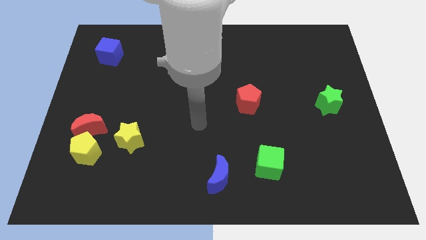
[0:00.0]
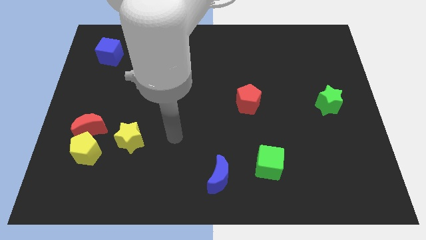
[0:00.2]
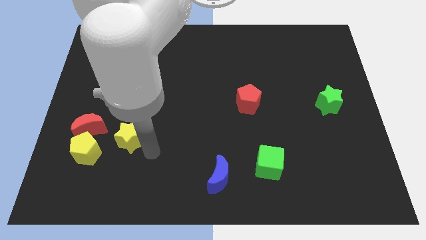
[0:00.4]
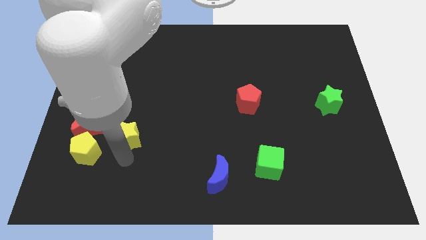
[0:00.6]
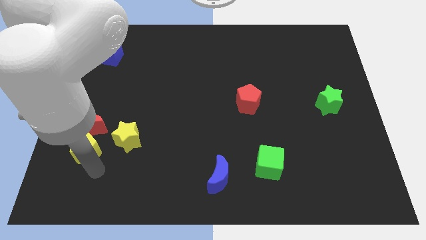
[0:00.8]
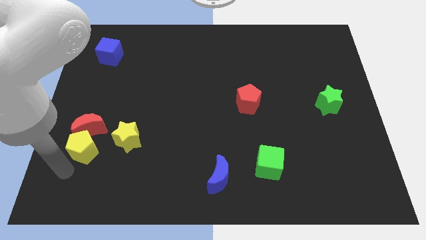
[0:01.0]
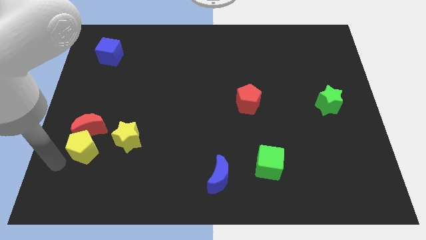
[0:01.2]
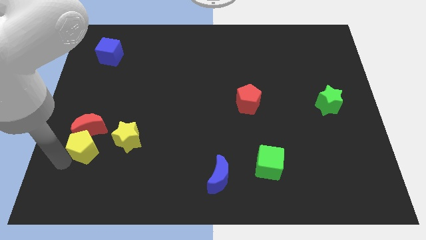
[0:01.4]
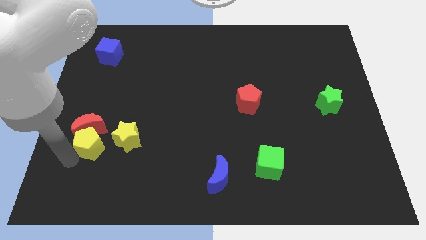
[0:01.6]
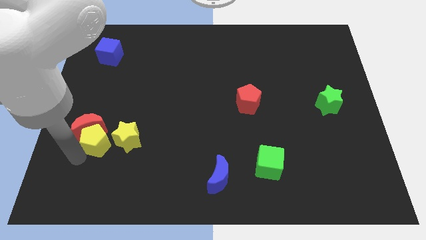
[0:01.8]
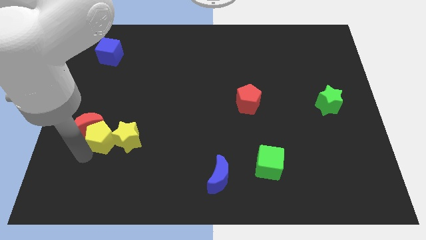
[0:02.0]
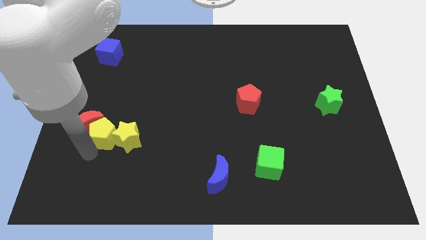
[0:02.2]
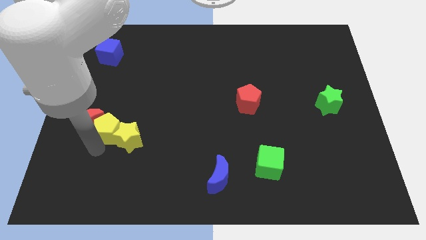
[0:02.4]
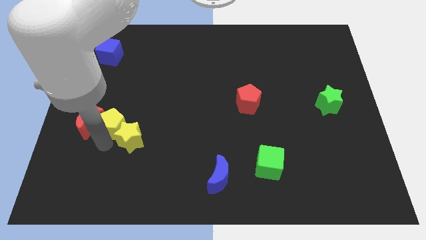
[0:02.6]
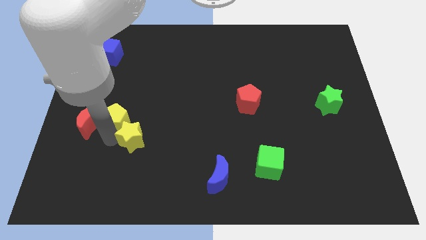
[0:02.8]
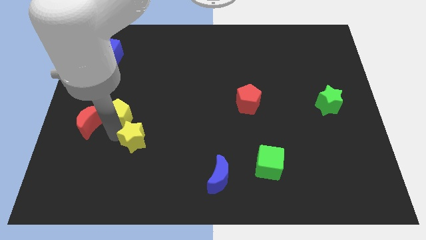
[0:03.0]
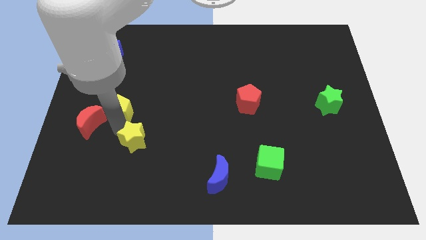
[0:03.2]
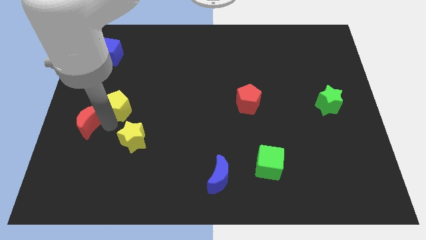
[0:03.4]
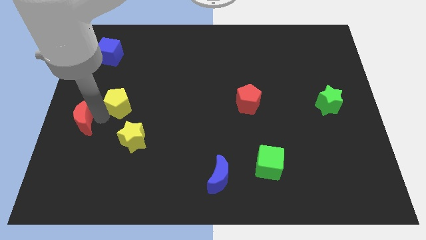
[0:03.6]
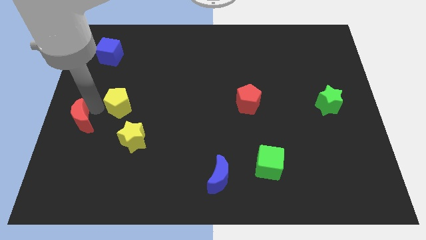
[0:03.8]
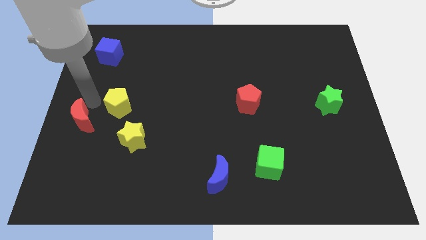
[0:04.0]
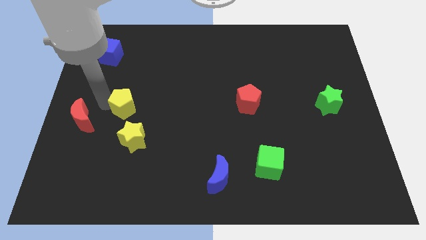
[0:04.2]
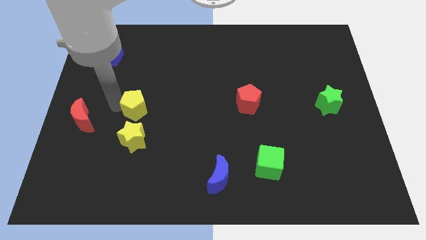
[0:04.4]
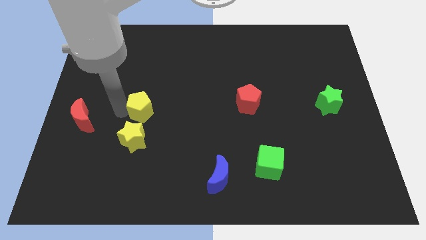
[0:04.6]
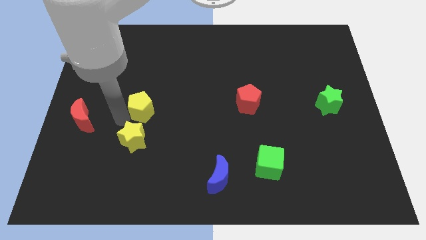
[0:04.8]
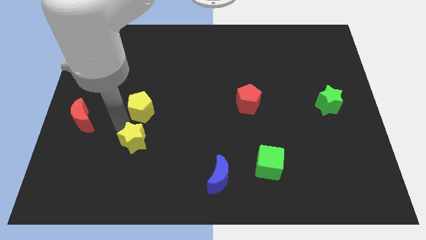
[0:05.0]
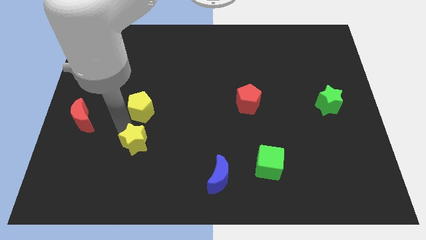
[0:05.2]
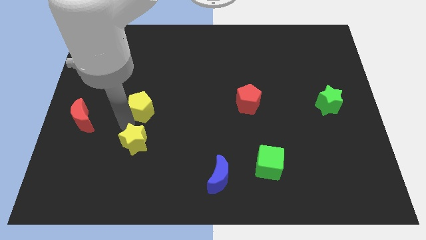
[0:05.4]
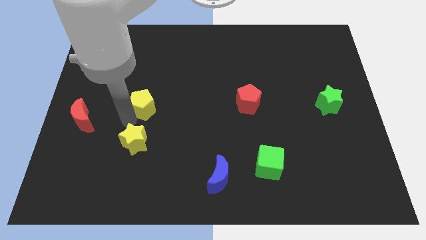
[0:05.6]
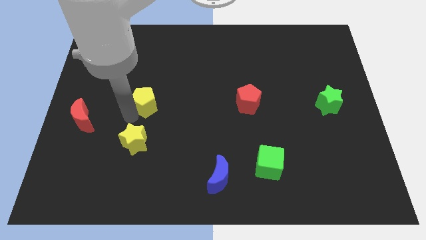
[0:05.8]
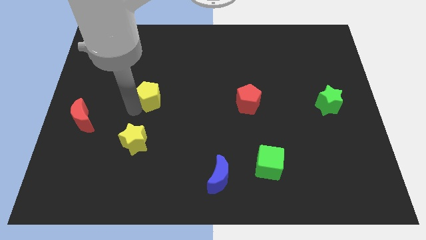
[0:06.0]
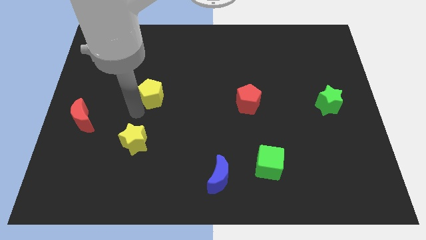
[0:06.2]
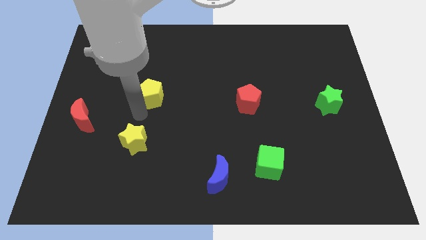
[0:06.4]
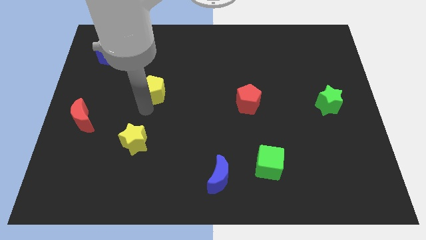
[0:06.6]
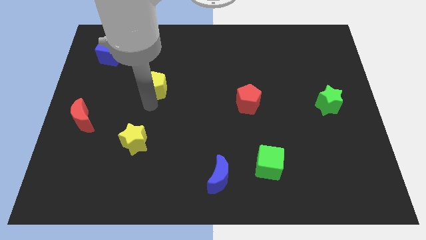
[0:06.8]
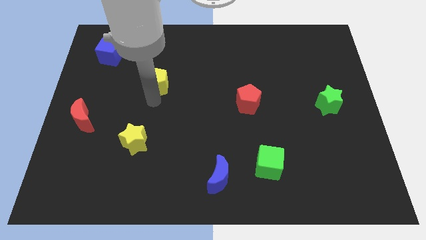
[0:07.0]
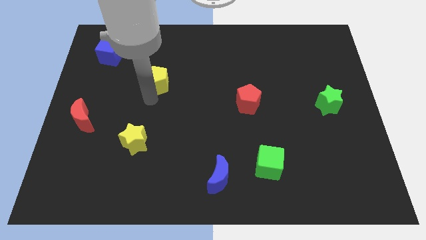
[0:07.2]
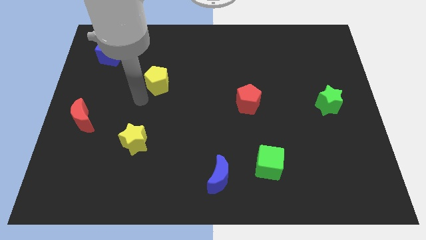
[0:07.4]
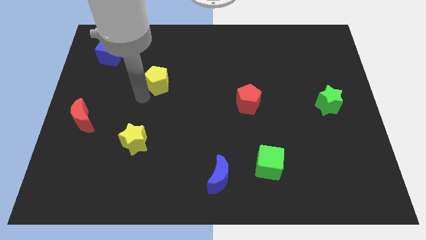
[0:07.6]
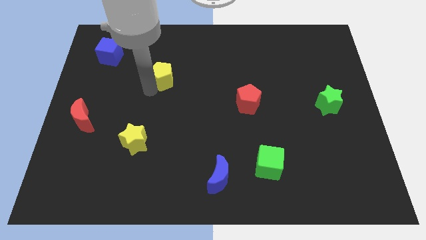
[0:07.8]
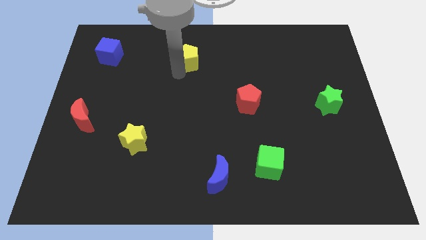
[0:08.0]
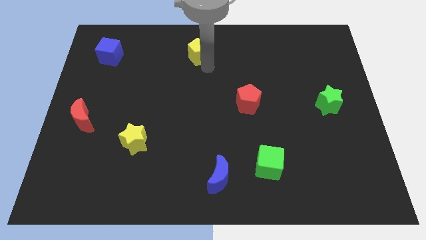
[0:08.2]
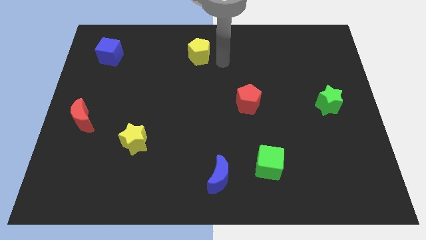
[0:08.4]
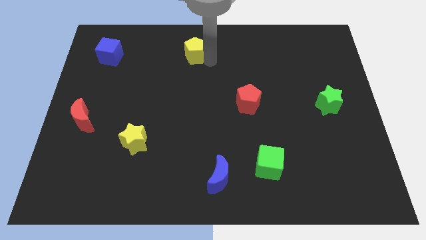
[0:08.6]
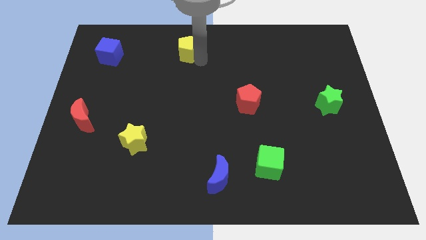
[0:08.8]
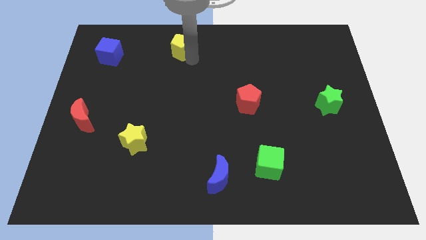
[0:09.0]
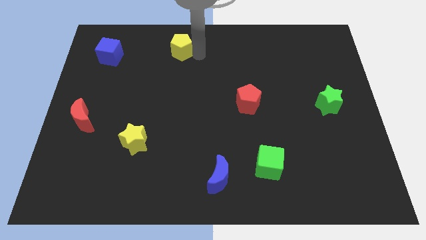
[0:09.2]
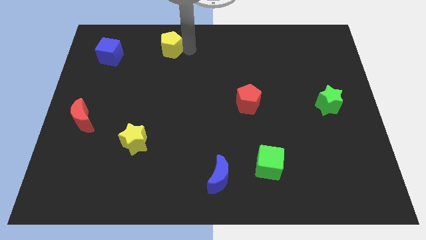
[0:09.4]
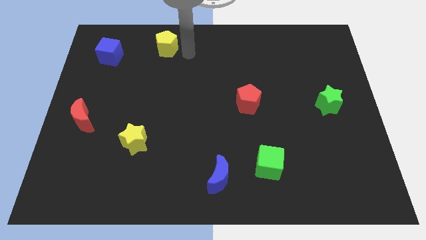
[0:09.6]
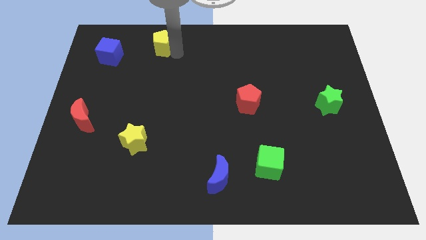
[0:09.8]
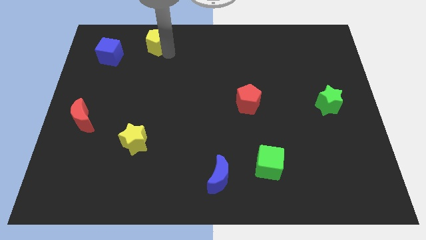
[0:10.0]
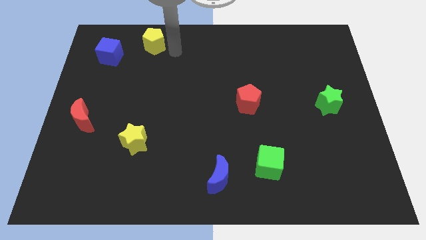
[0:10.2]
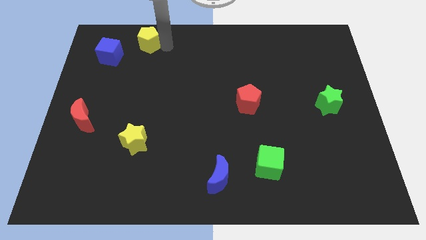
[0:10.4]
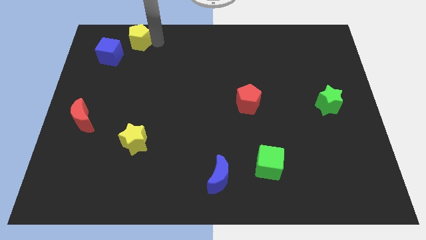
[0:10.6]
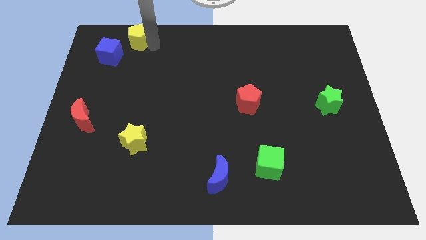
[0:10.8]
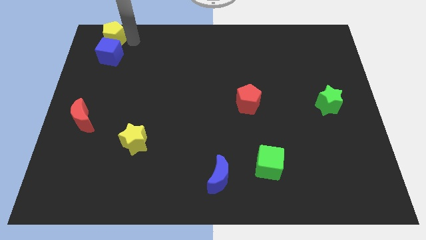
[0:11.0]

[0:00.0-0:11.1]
push the yellow pentagon to the upper left corner

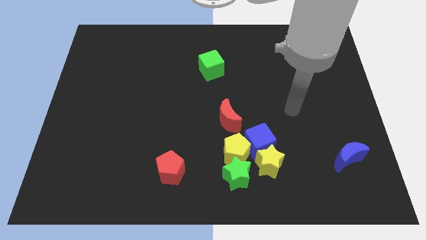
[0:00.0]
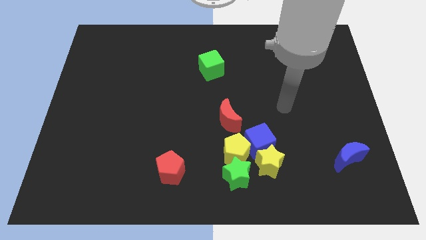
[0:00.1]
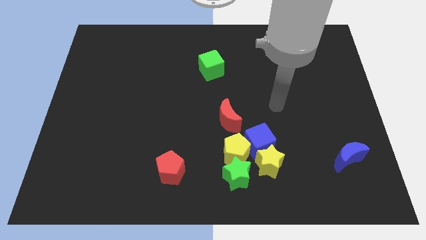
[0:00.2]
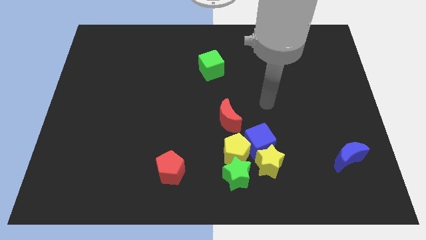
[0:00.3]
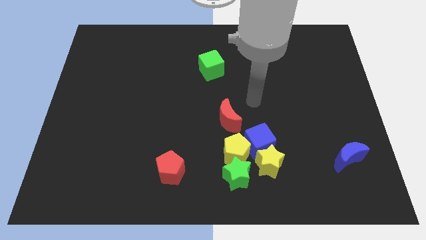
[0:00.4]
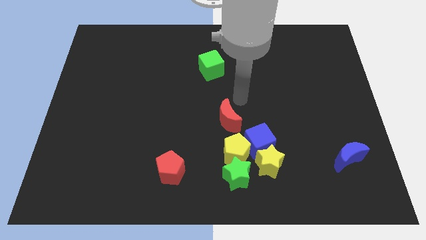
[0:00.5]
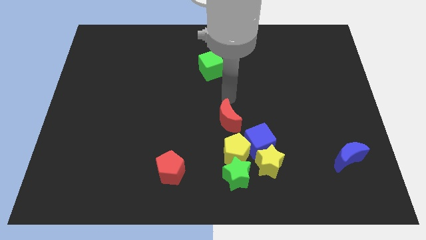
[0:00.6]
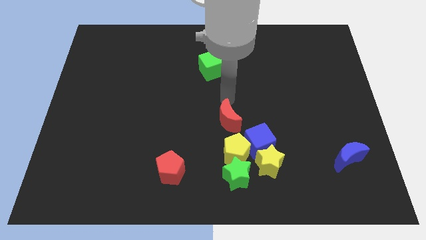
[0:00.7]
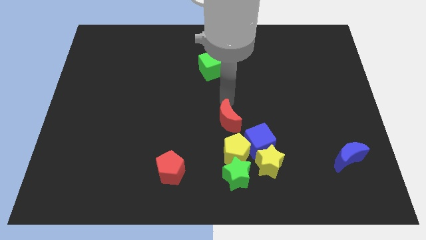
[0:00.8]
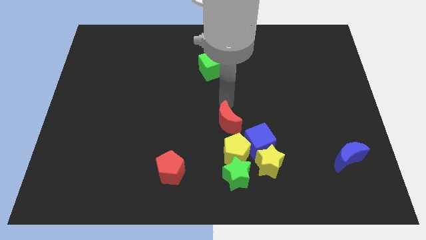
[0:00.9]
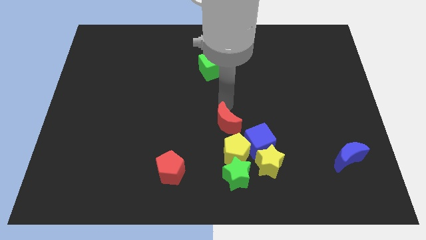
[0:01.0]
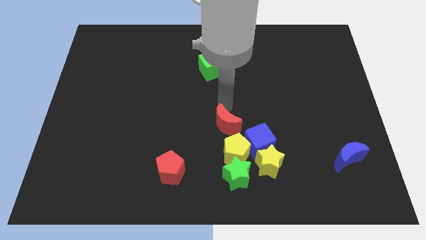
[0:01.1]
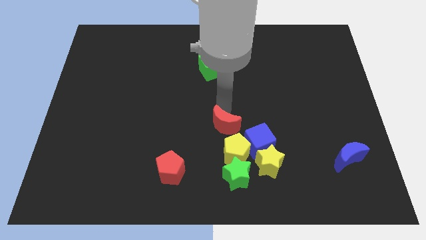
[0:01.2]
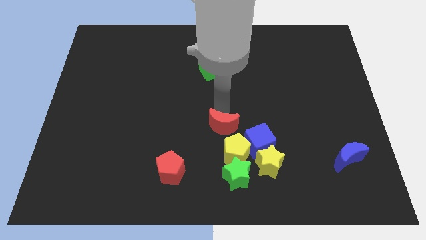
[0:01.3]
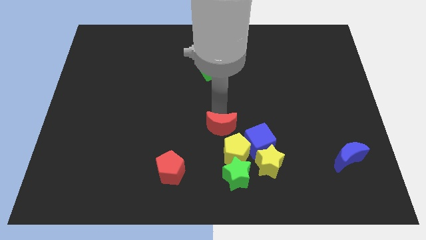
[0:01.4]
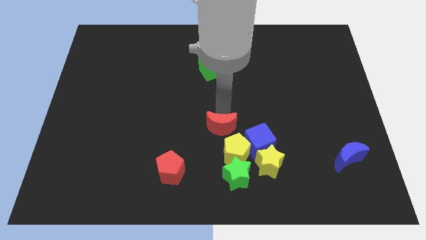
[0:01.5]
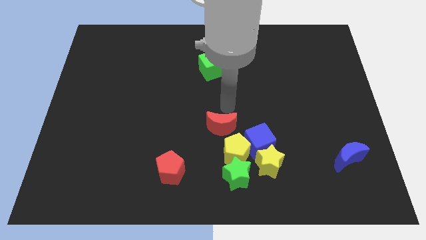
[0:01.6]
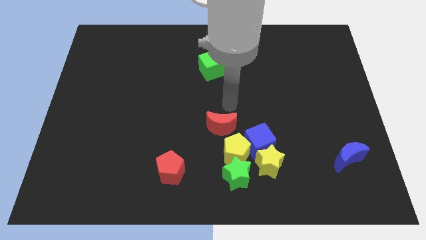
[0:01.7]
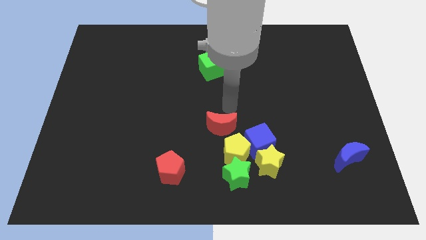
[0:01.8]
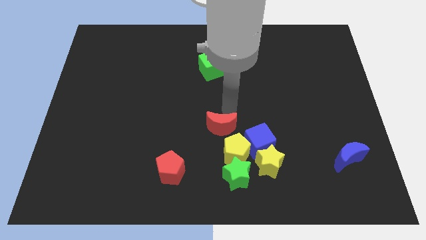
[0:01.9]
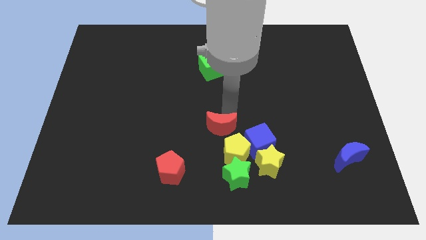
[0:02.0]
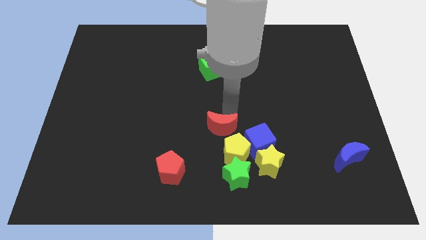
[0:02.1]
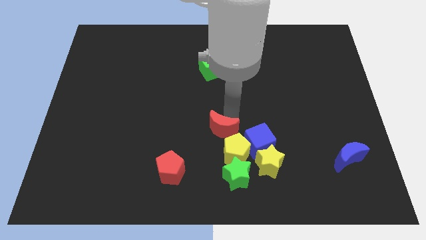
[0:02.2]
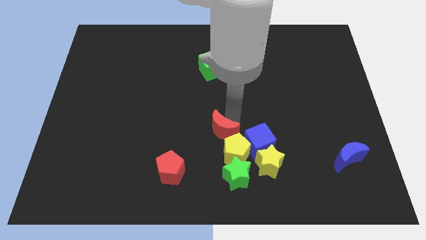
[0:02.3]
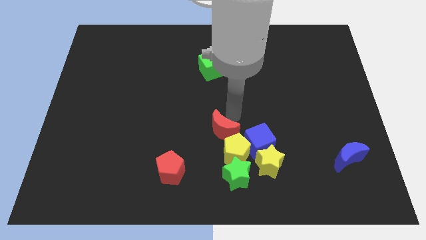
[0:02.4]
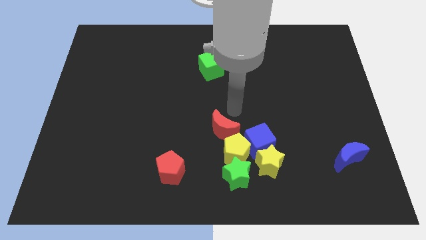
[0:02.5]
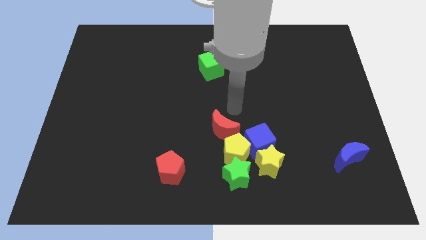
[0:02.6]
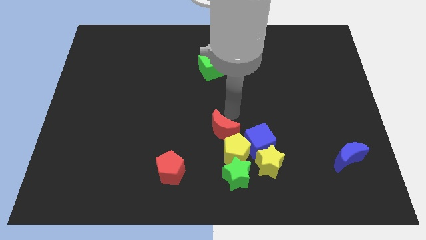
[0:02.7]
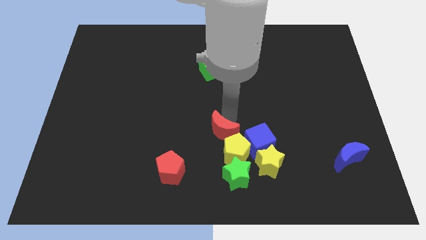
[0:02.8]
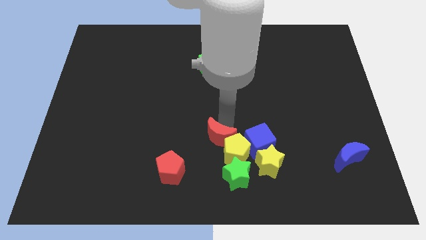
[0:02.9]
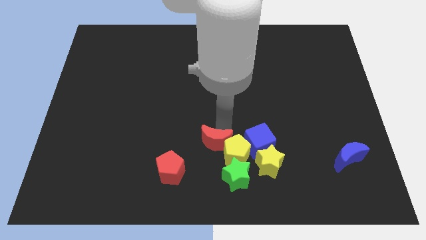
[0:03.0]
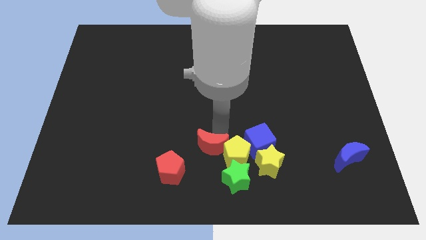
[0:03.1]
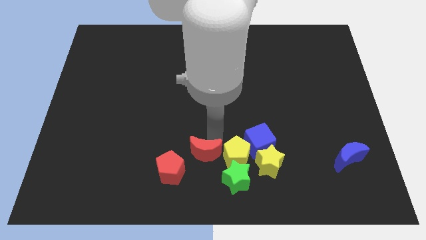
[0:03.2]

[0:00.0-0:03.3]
put the red moon to the bottom
